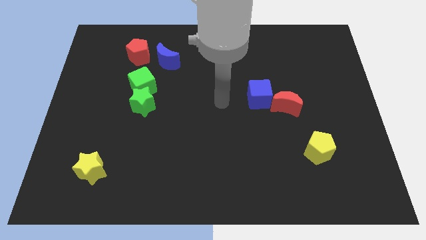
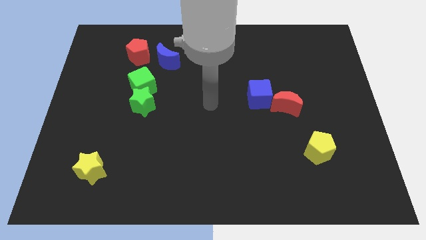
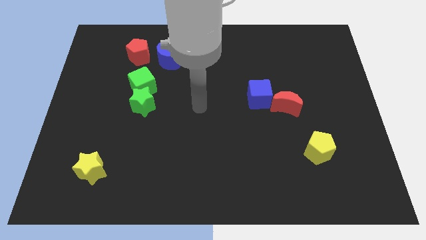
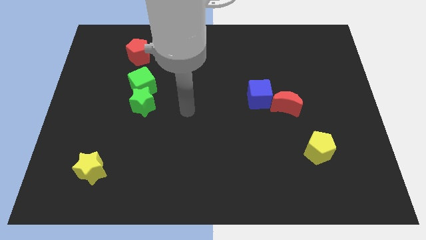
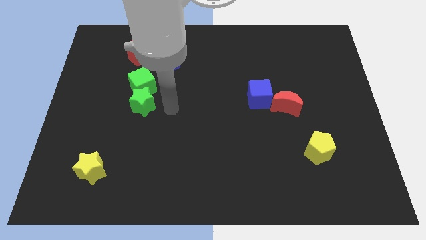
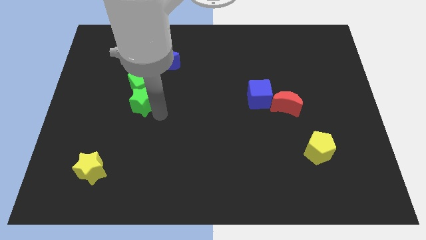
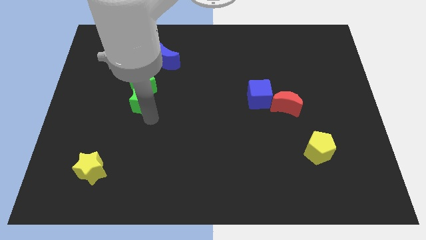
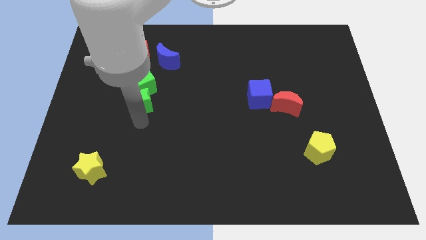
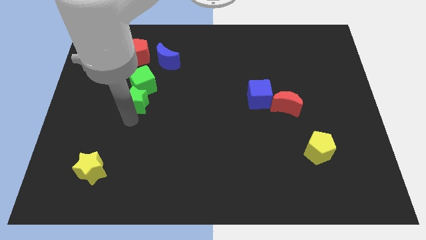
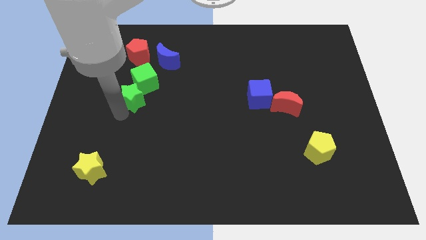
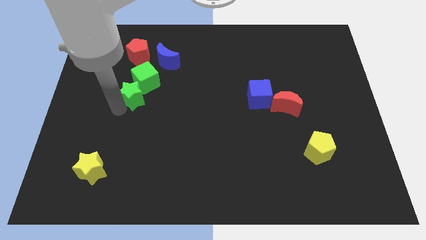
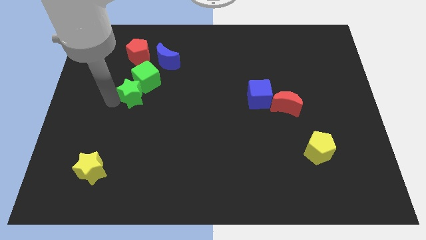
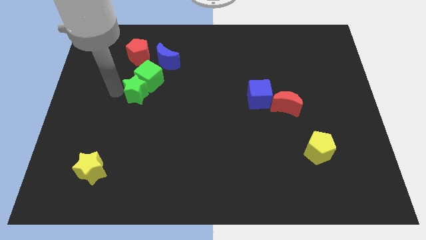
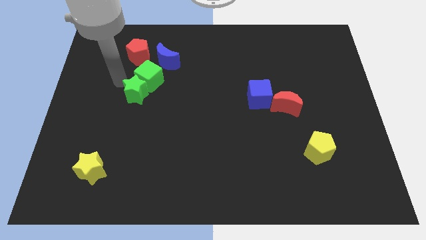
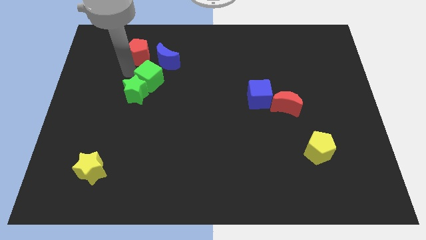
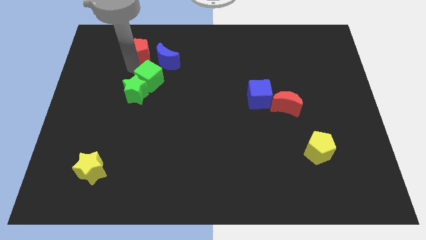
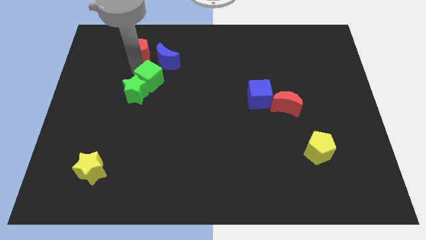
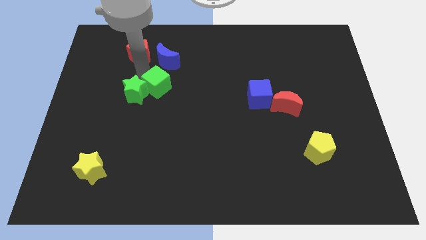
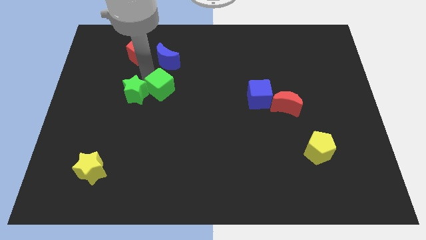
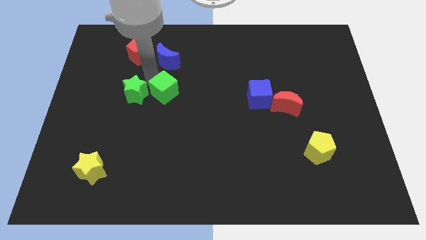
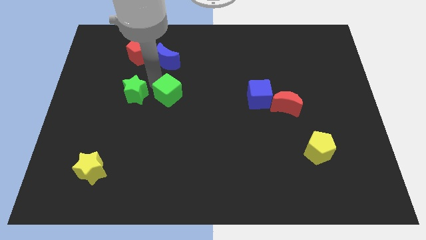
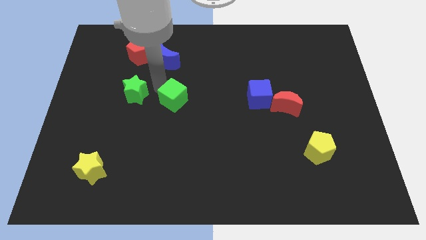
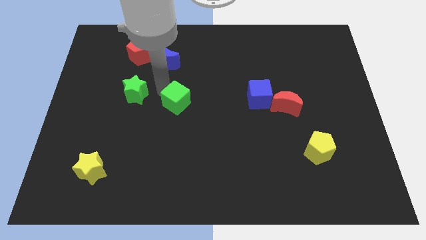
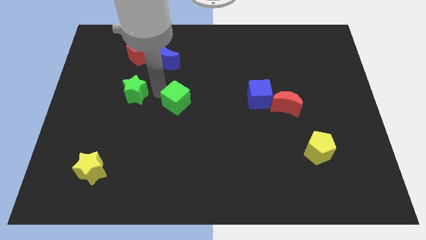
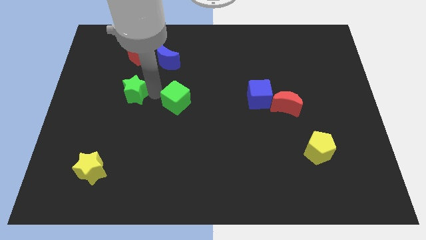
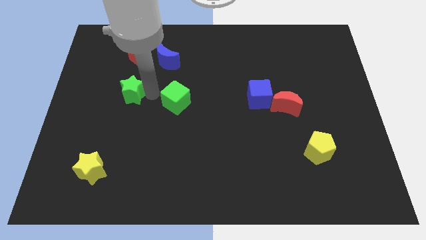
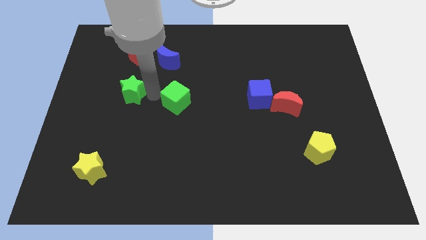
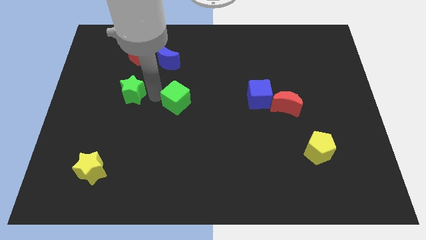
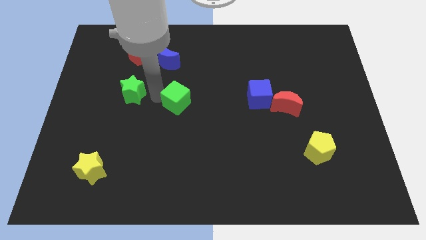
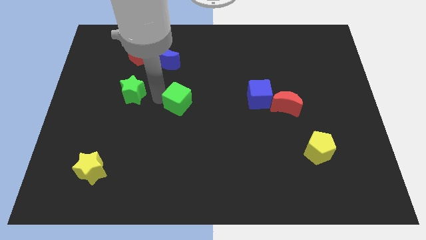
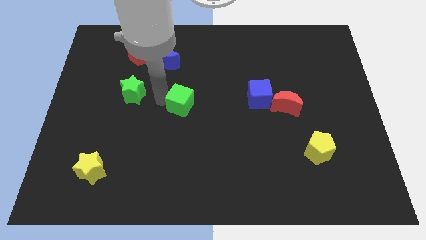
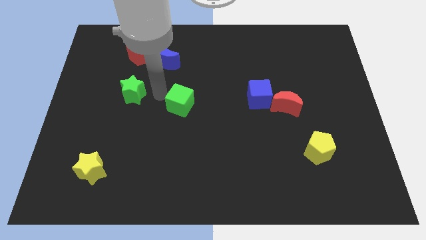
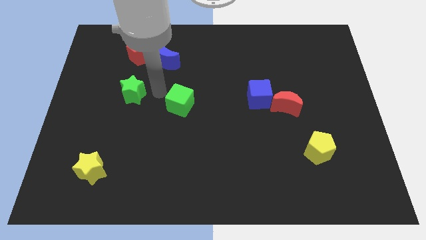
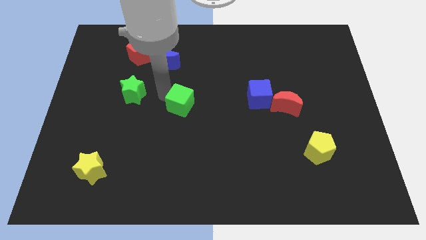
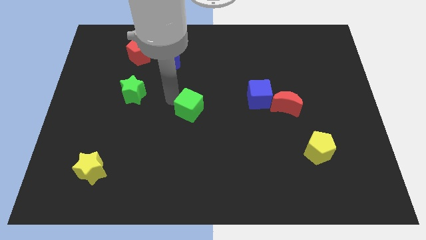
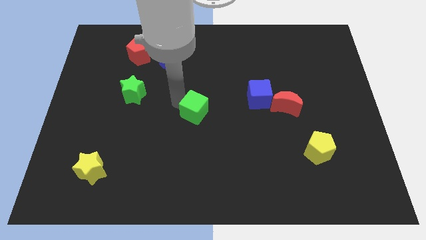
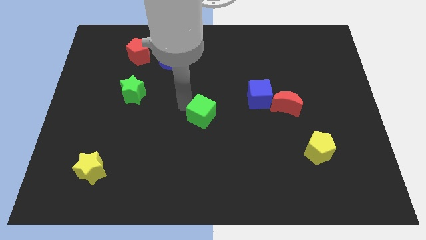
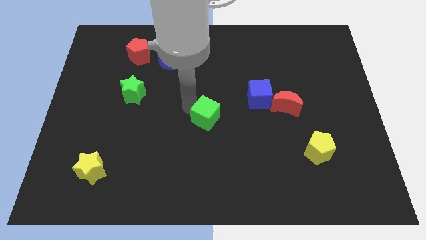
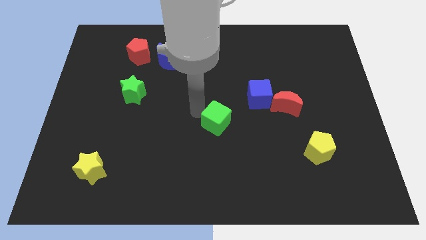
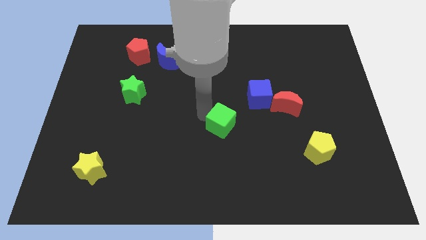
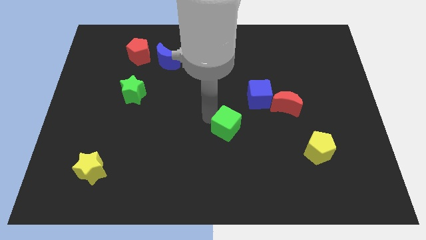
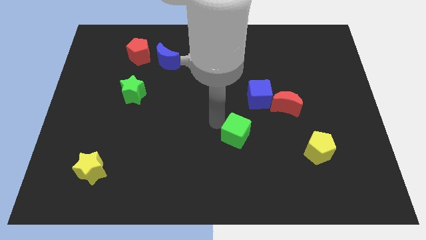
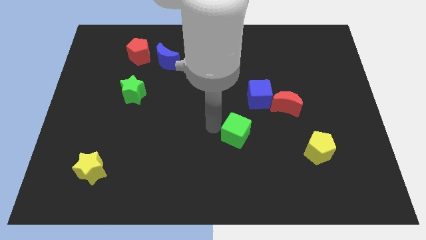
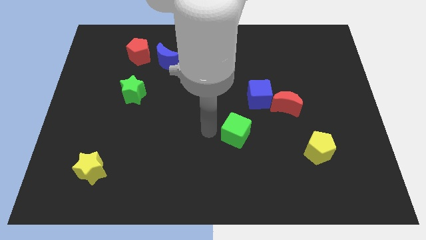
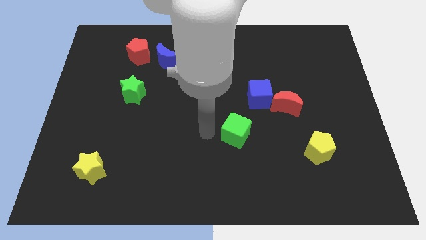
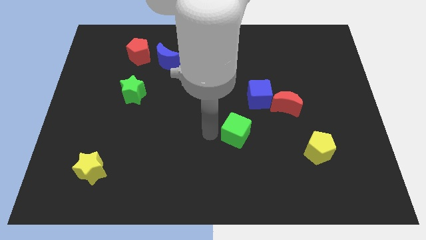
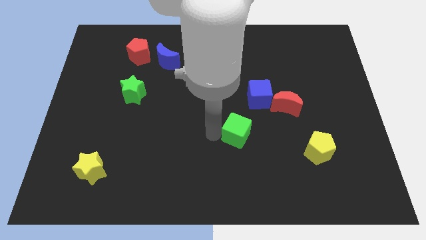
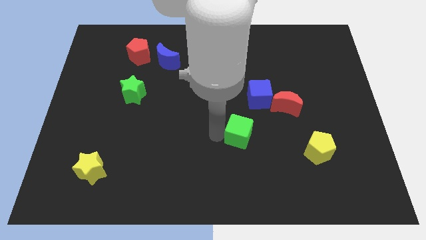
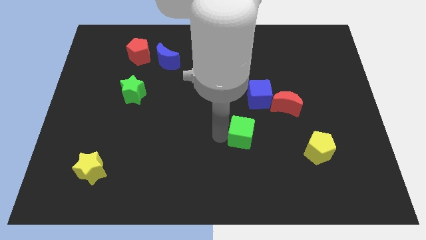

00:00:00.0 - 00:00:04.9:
put the green cube to the bottom of the blue cube

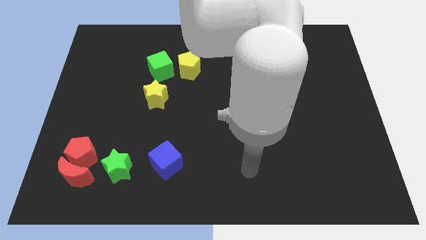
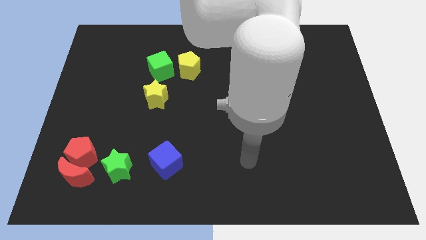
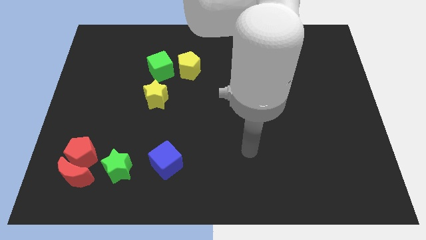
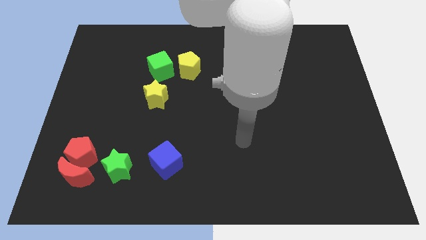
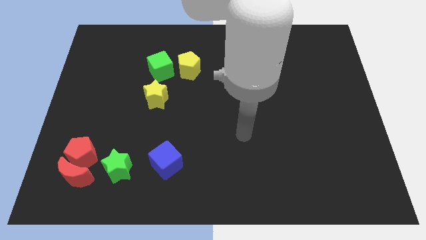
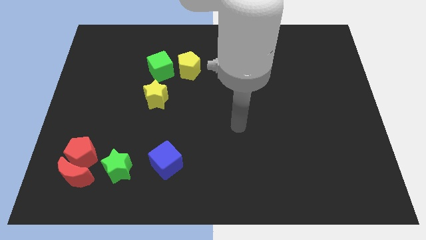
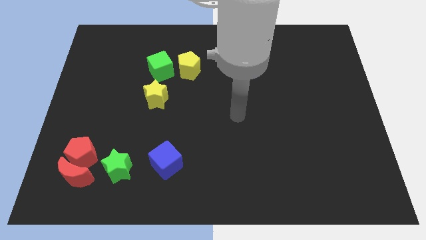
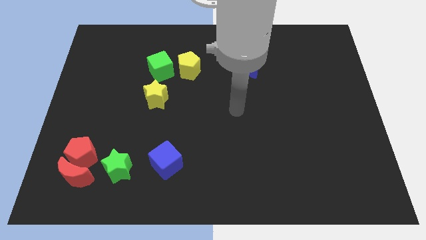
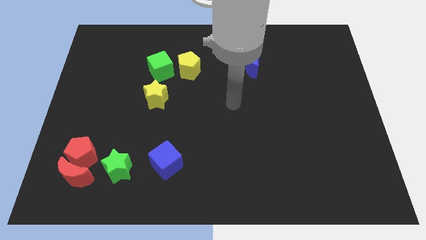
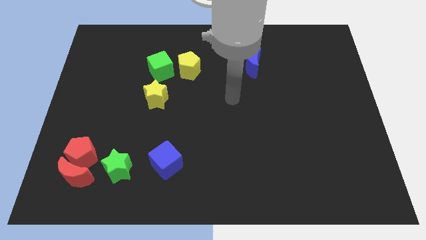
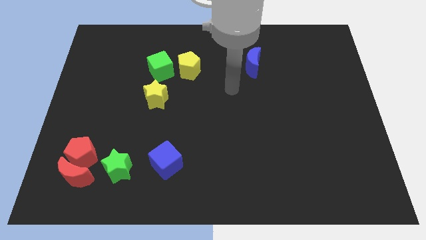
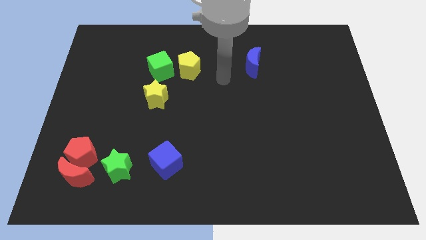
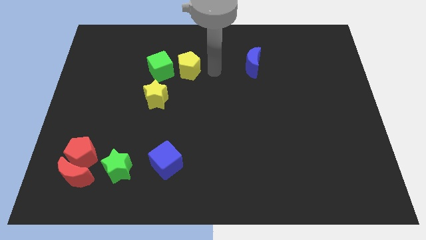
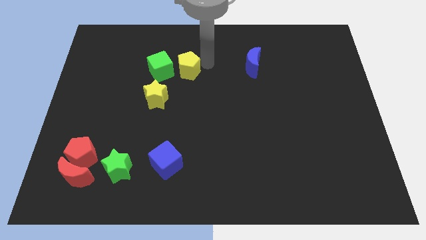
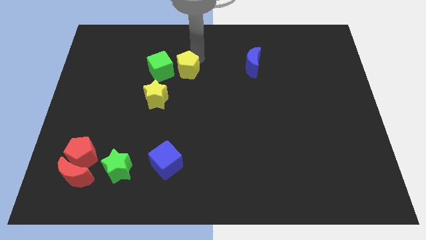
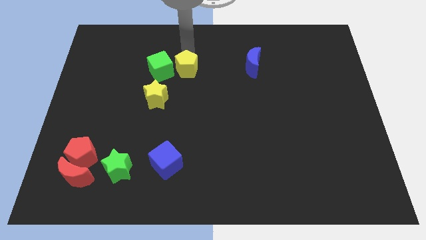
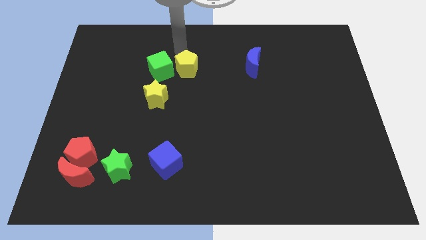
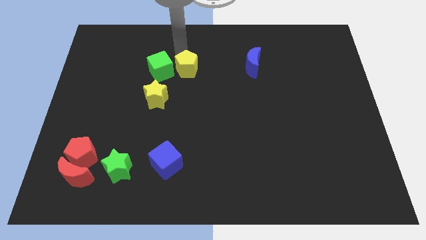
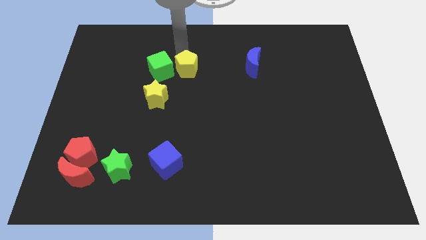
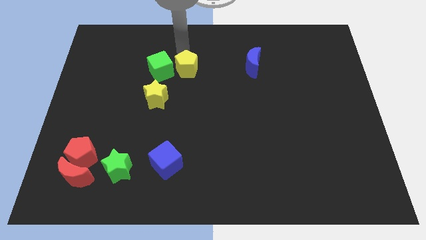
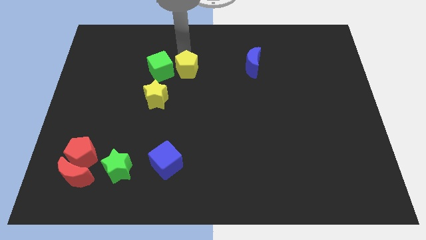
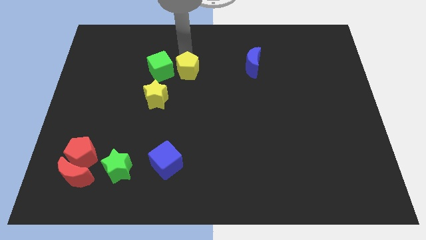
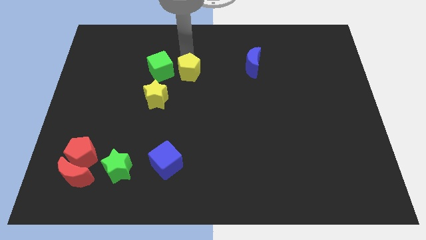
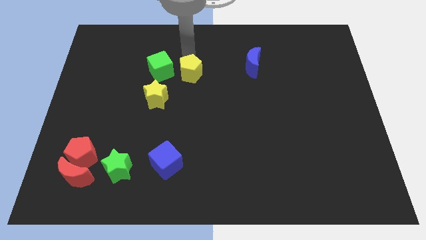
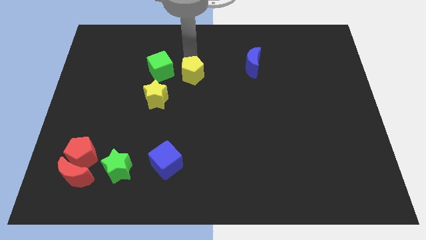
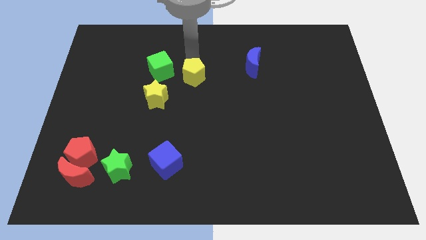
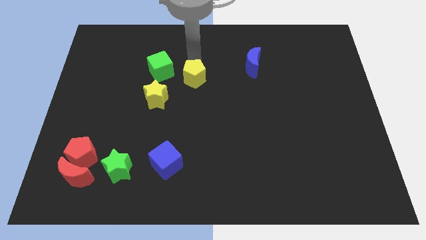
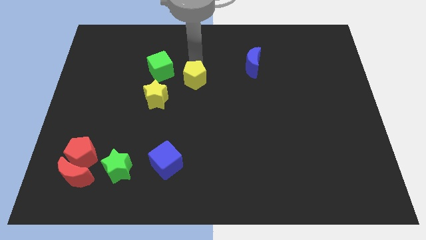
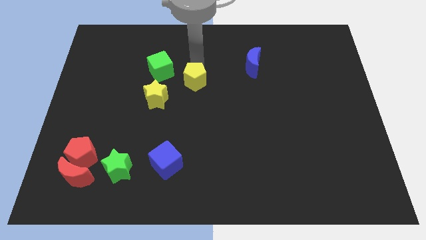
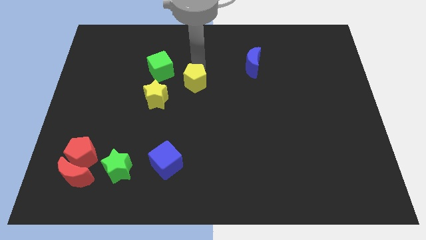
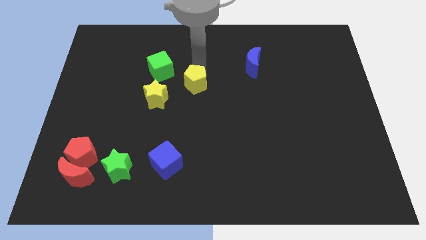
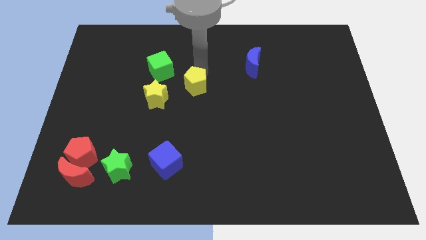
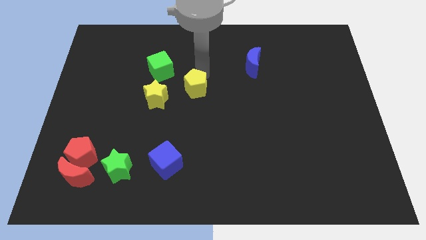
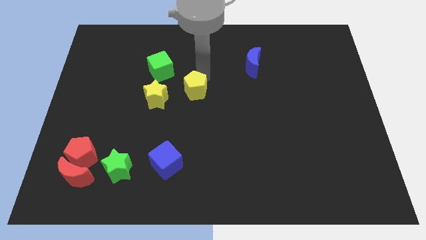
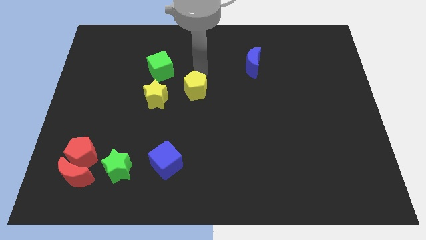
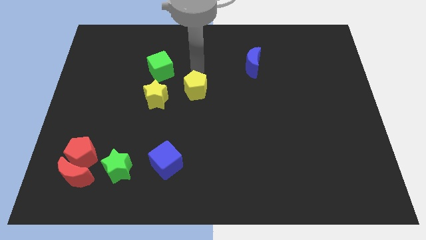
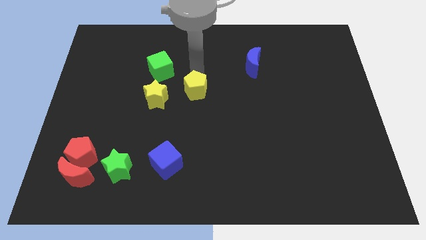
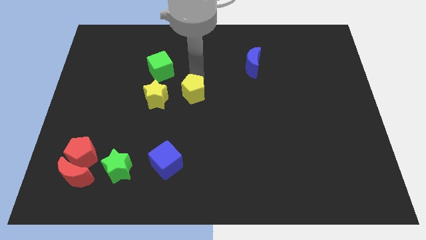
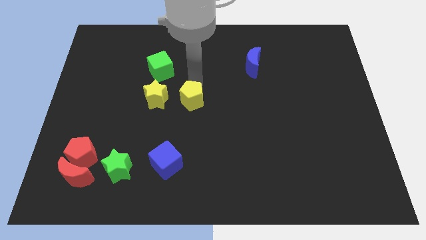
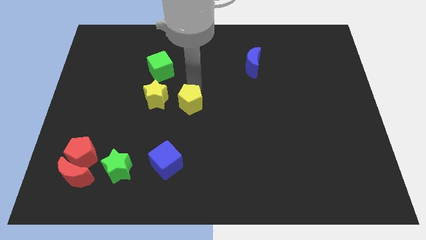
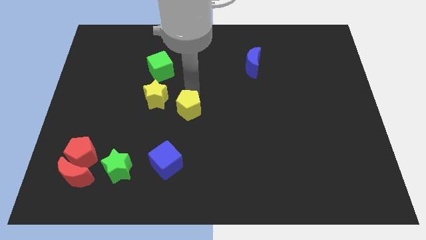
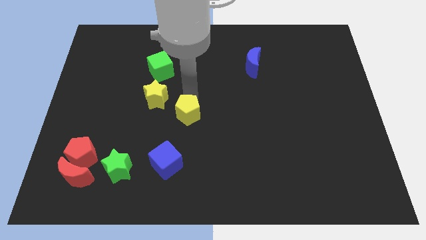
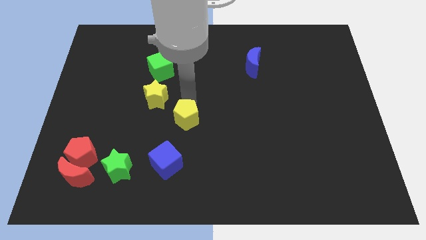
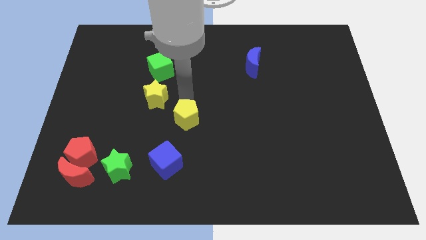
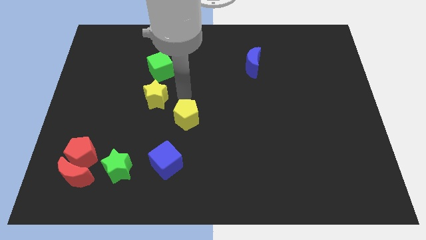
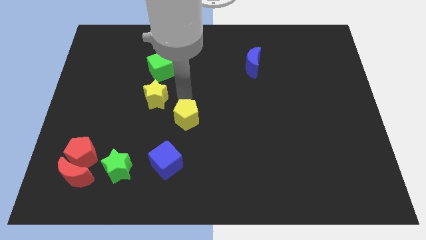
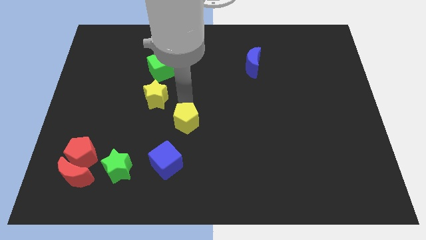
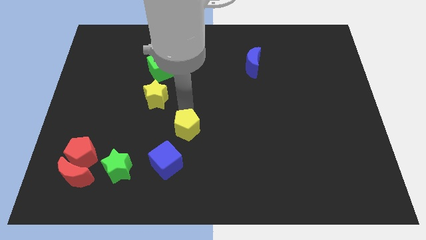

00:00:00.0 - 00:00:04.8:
move the yellow pentagon to the top right of the blue cube
